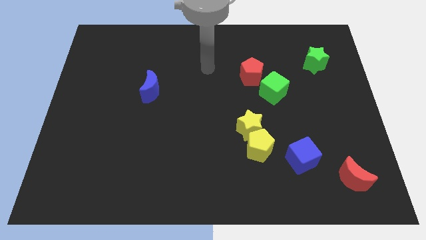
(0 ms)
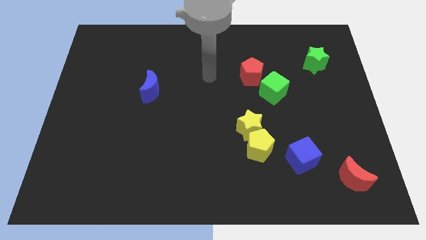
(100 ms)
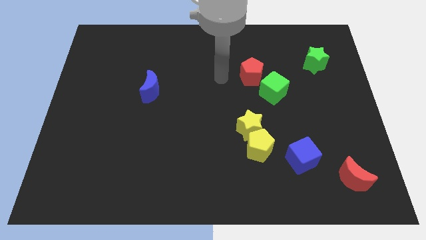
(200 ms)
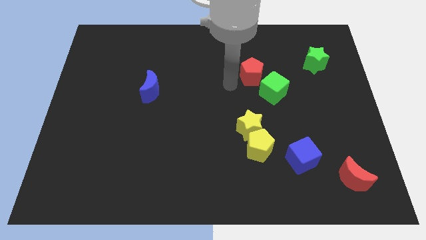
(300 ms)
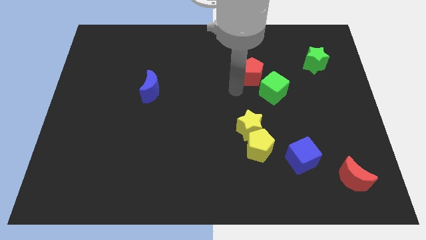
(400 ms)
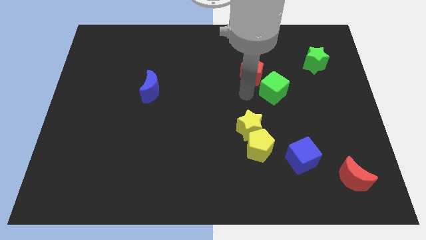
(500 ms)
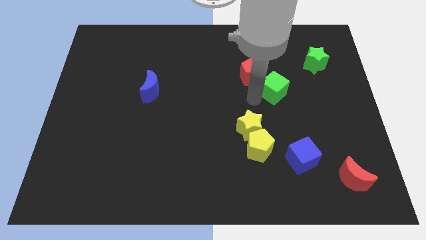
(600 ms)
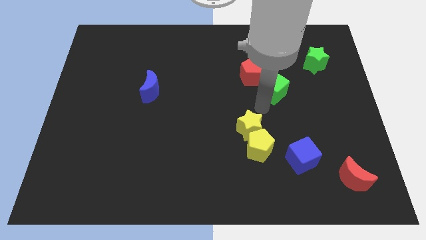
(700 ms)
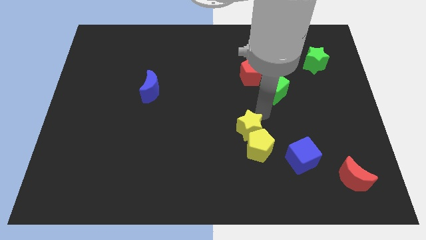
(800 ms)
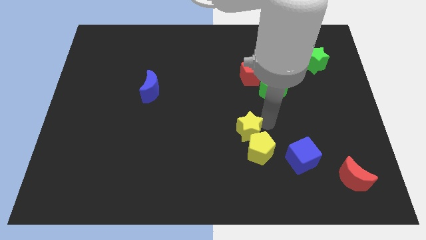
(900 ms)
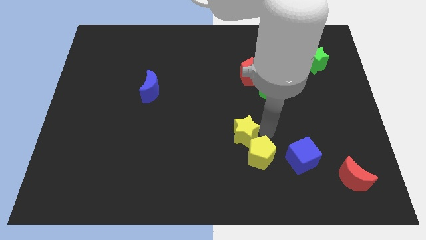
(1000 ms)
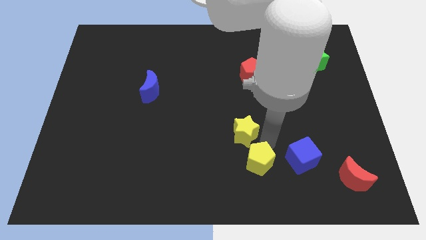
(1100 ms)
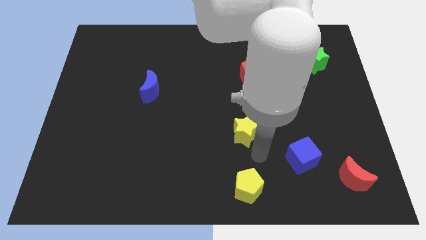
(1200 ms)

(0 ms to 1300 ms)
move the yellow star away from the yellow pentagon

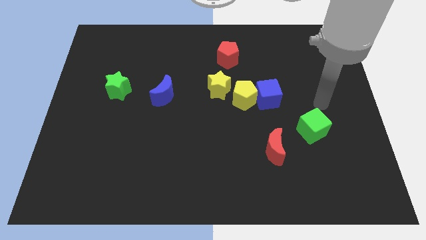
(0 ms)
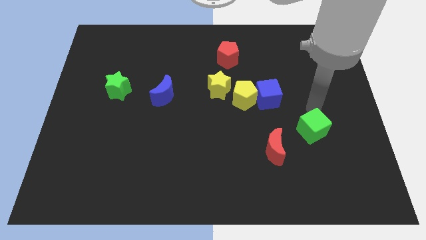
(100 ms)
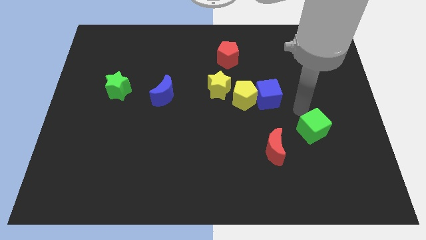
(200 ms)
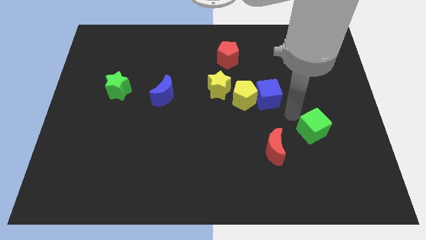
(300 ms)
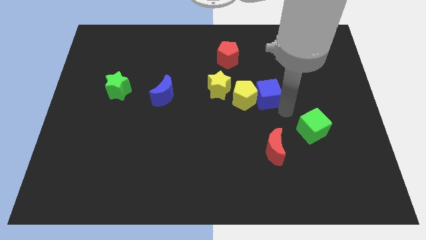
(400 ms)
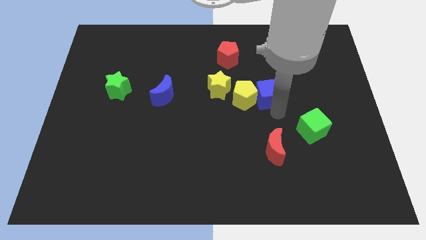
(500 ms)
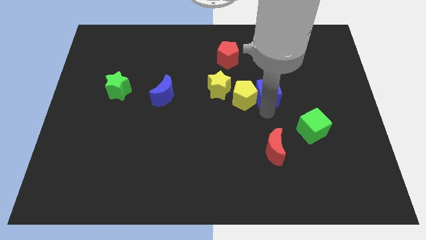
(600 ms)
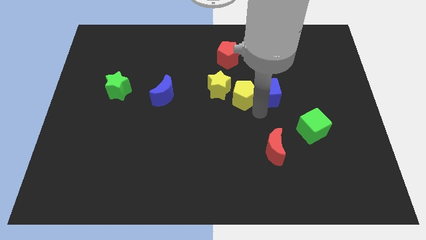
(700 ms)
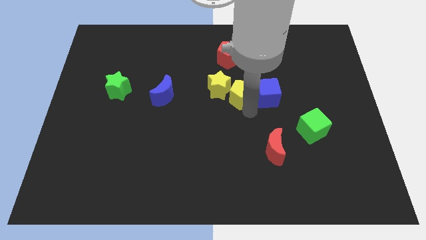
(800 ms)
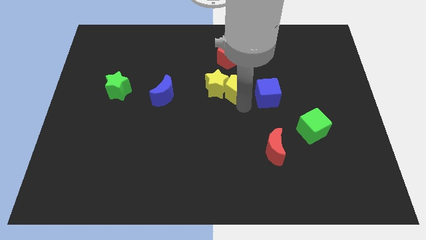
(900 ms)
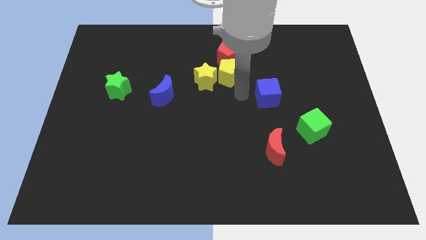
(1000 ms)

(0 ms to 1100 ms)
move the blue cube away from the yellow pentagon

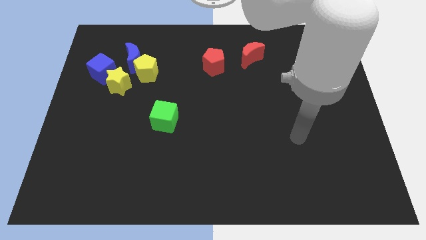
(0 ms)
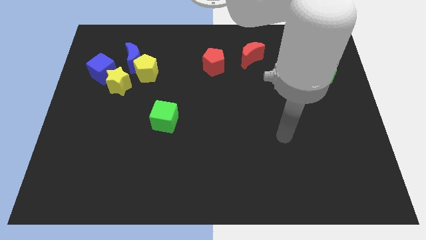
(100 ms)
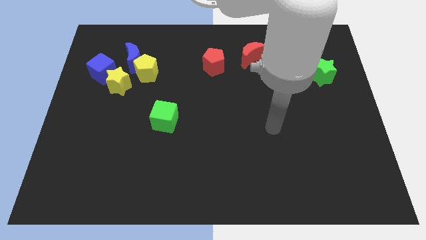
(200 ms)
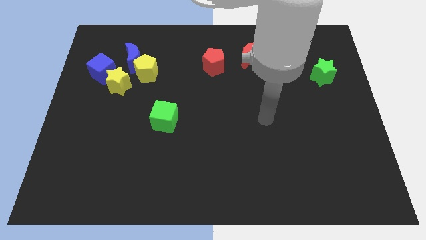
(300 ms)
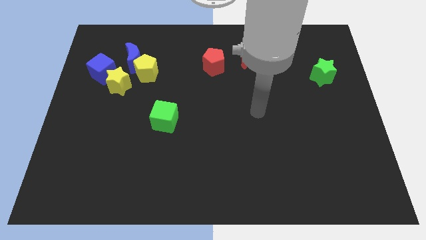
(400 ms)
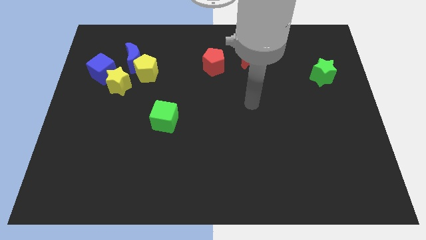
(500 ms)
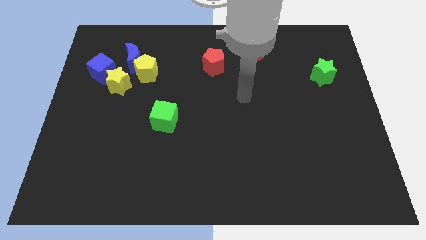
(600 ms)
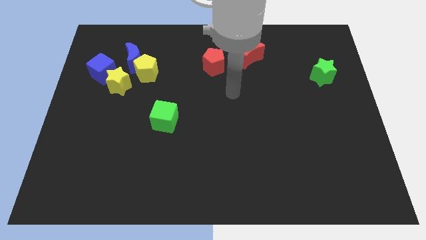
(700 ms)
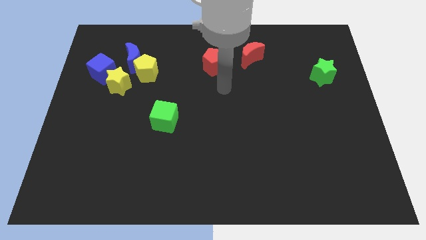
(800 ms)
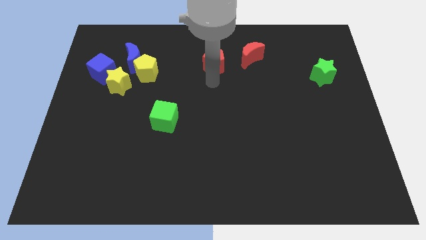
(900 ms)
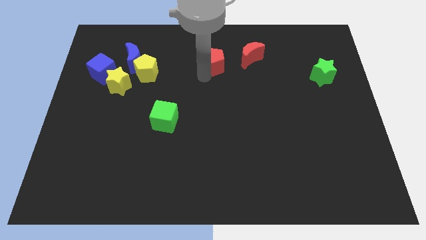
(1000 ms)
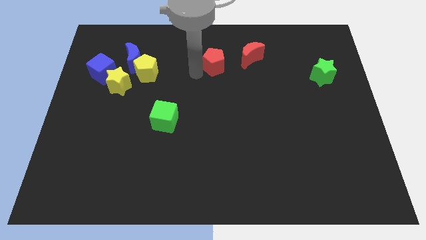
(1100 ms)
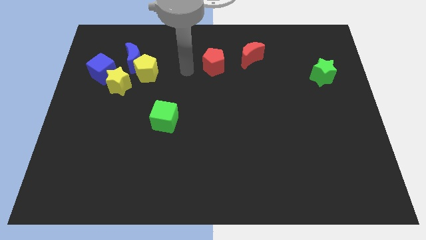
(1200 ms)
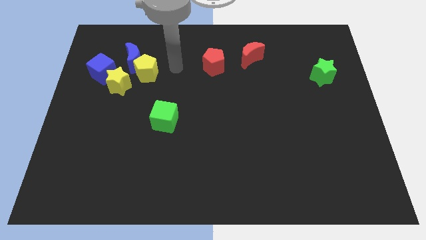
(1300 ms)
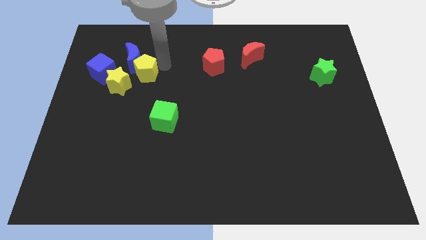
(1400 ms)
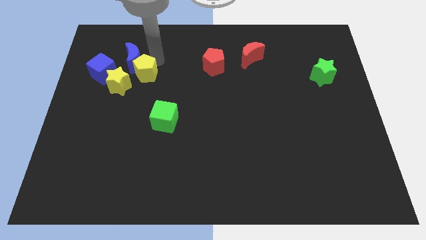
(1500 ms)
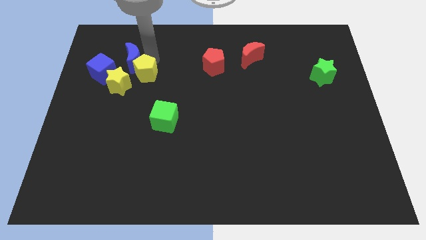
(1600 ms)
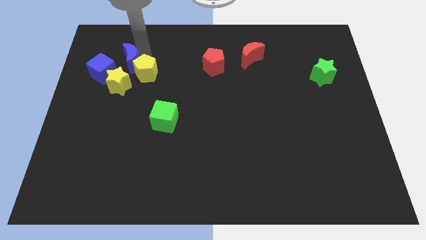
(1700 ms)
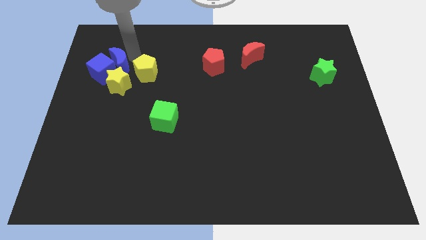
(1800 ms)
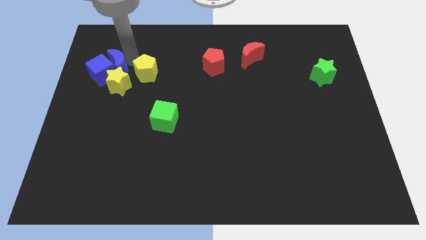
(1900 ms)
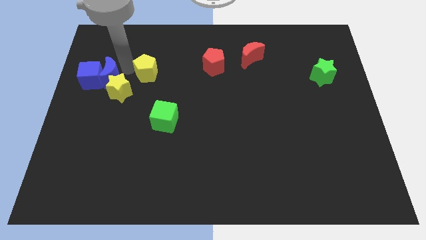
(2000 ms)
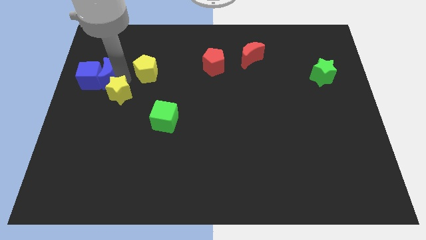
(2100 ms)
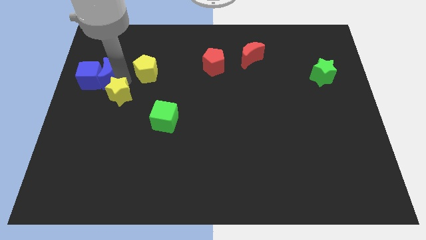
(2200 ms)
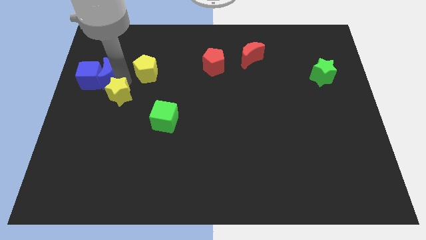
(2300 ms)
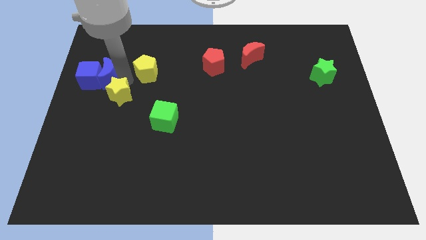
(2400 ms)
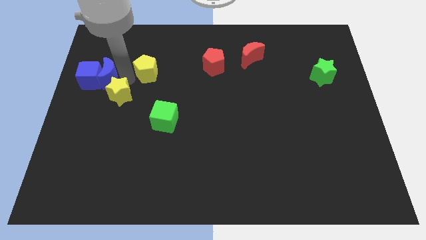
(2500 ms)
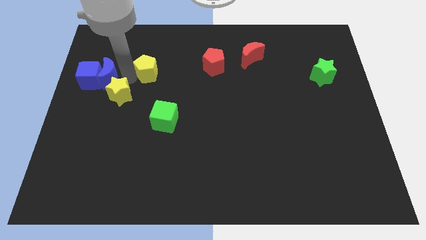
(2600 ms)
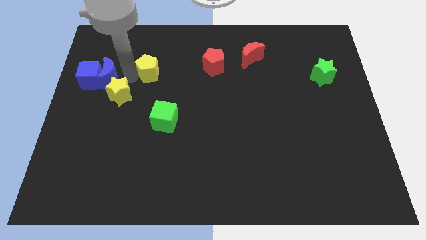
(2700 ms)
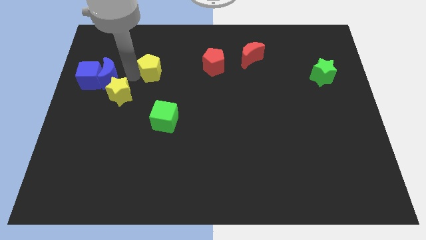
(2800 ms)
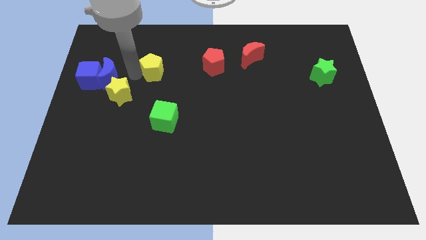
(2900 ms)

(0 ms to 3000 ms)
separate the yellow pentagon from the blue moon and yellow star

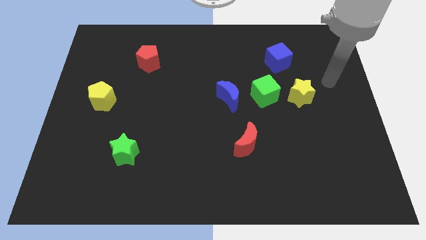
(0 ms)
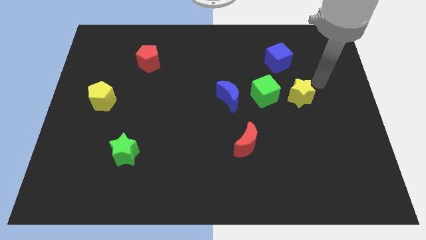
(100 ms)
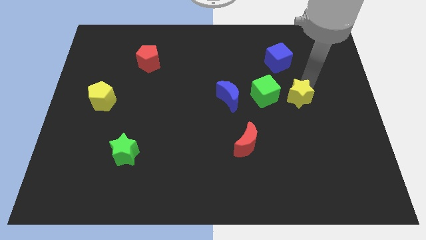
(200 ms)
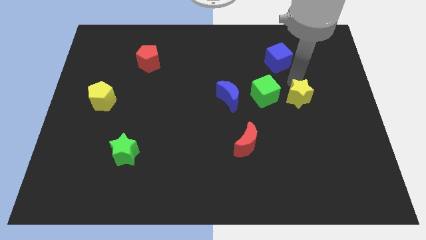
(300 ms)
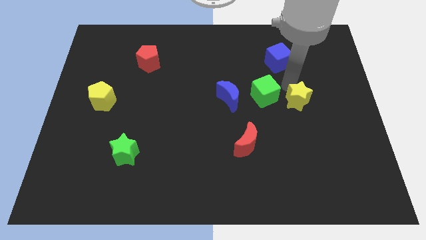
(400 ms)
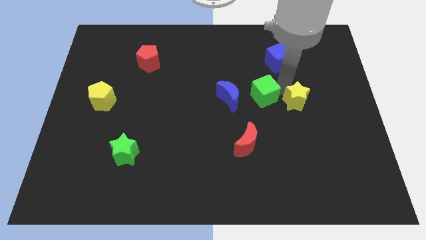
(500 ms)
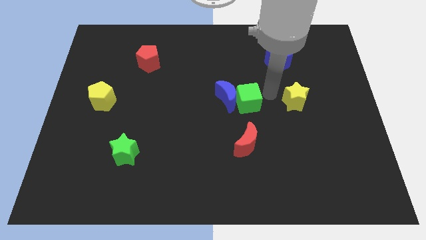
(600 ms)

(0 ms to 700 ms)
pull the yellow star apart from the green cube

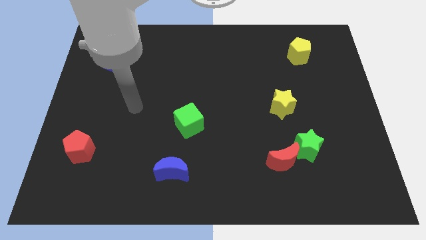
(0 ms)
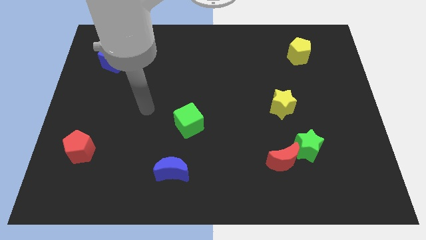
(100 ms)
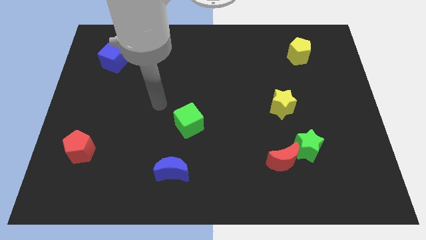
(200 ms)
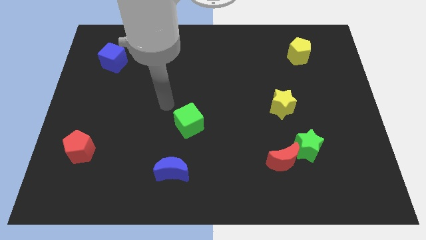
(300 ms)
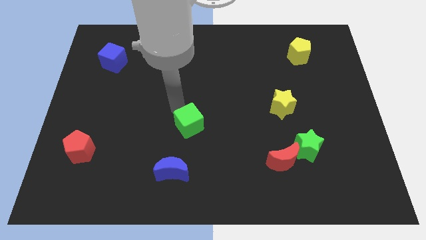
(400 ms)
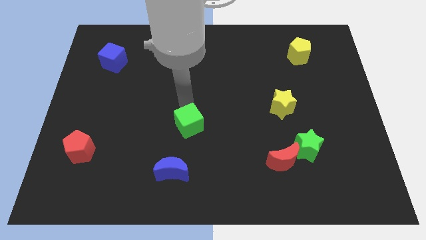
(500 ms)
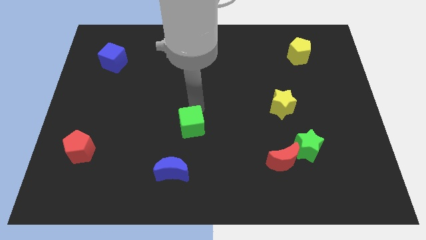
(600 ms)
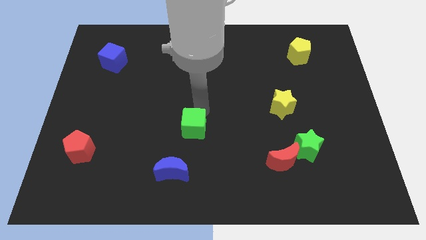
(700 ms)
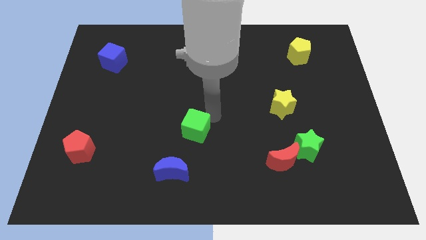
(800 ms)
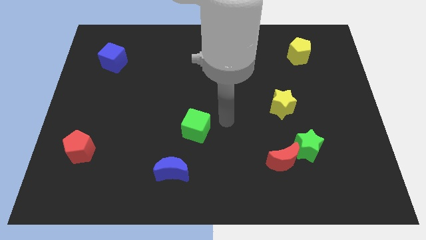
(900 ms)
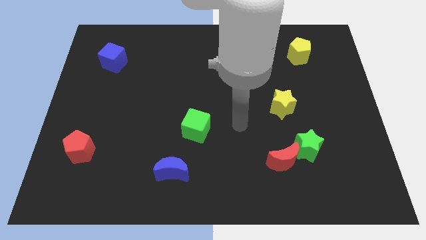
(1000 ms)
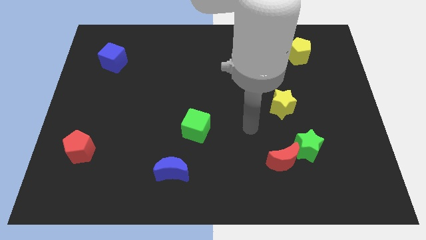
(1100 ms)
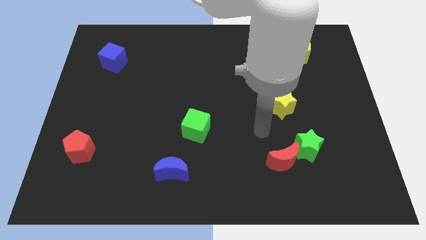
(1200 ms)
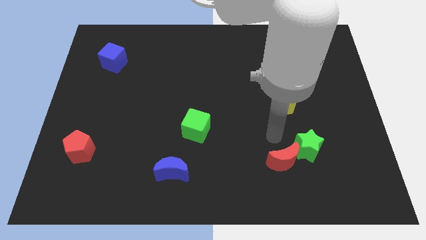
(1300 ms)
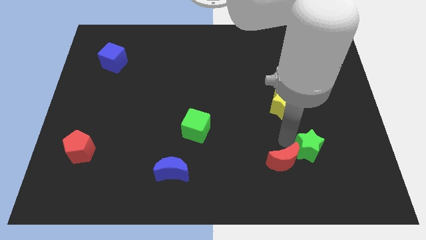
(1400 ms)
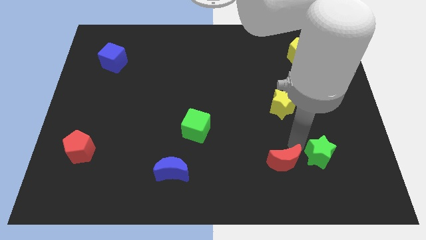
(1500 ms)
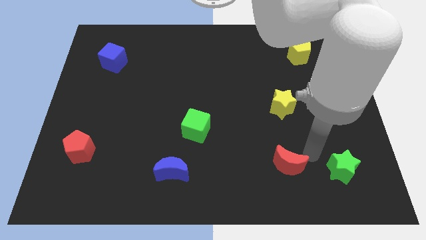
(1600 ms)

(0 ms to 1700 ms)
separate the red moon from the green star

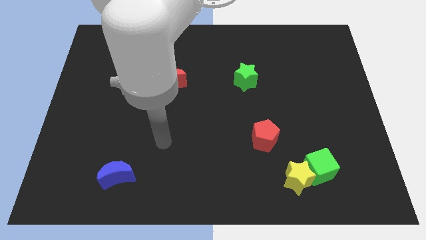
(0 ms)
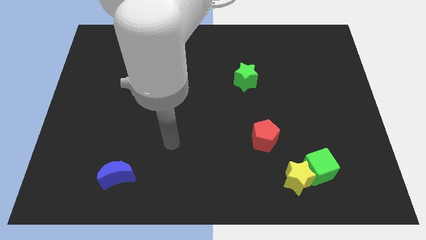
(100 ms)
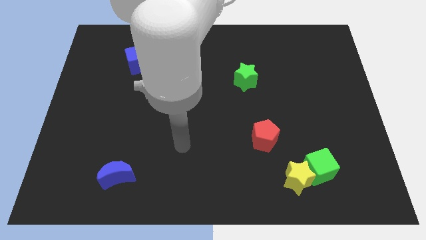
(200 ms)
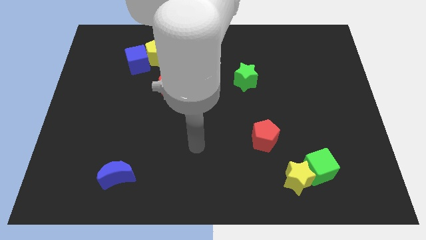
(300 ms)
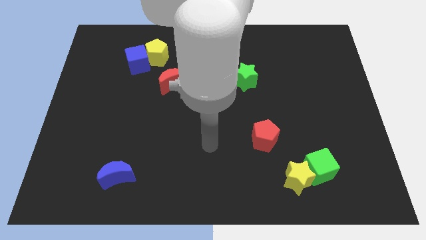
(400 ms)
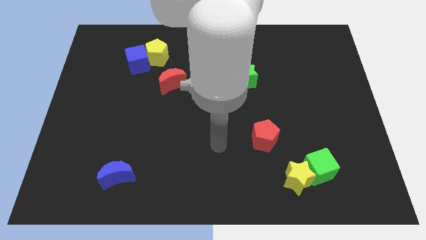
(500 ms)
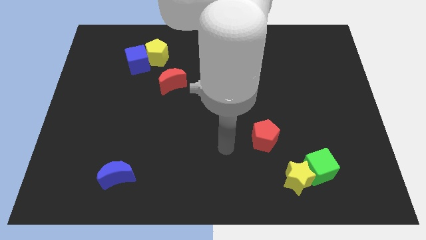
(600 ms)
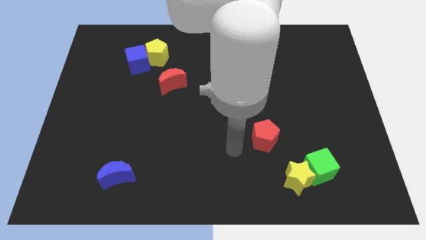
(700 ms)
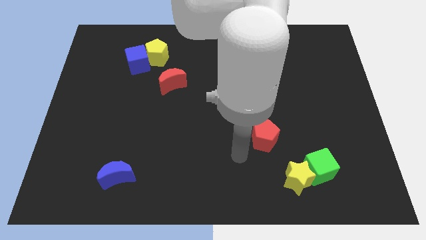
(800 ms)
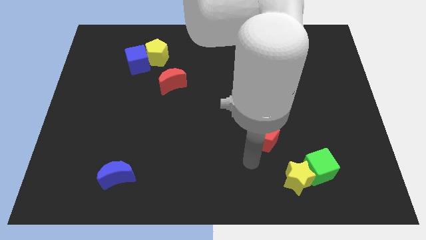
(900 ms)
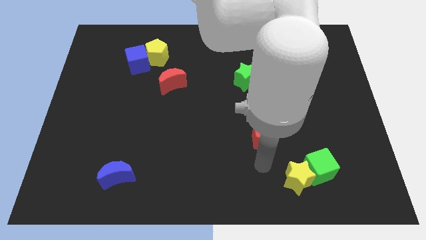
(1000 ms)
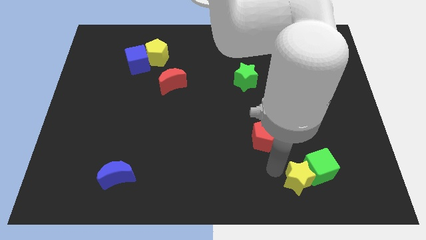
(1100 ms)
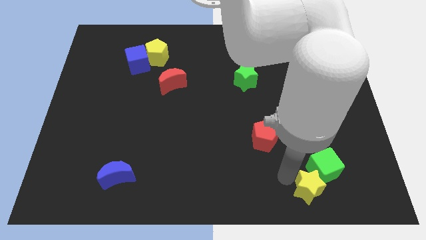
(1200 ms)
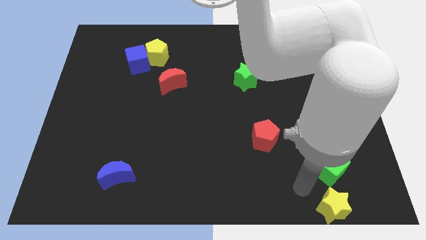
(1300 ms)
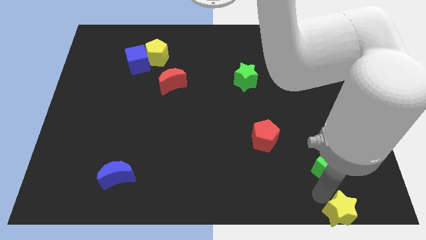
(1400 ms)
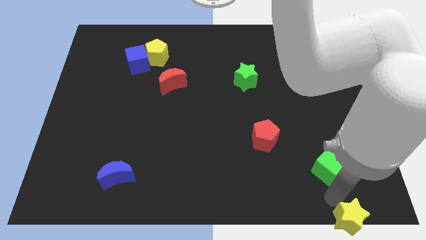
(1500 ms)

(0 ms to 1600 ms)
separate the green cube from the yellow star
